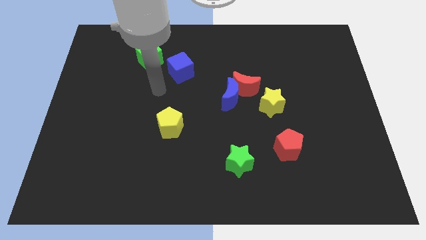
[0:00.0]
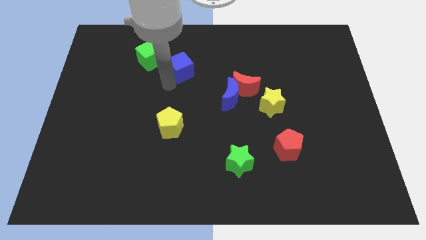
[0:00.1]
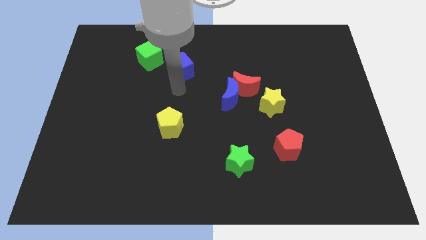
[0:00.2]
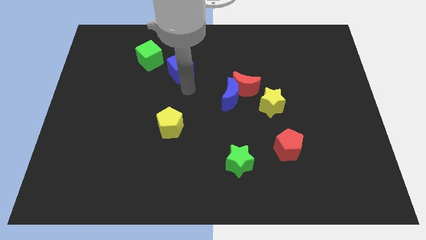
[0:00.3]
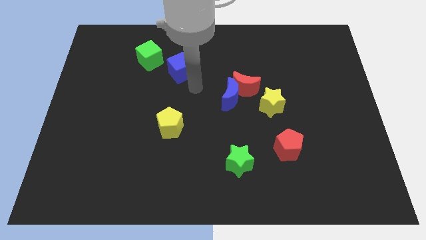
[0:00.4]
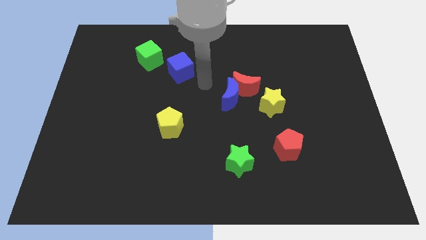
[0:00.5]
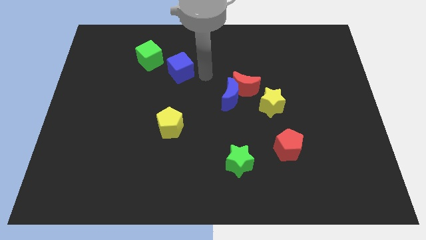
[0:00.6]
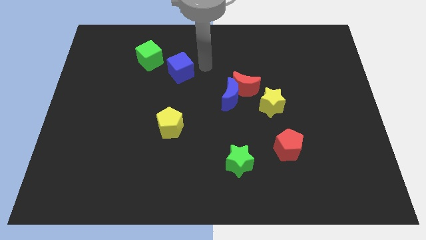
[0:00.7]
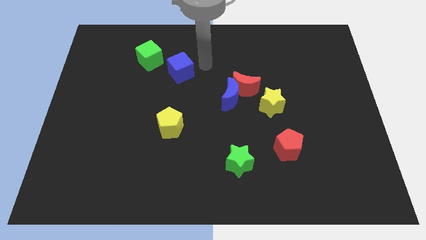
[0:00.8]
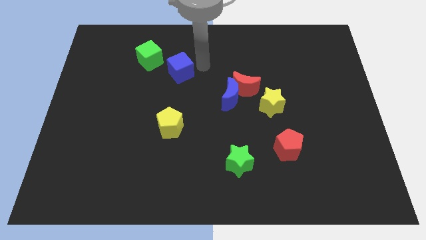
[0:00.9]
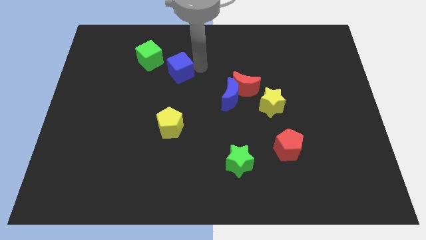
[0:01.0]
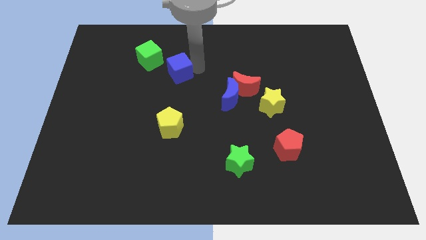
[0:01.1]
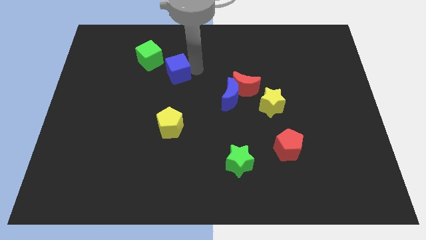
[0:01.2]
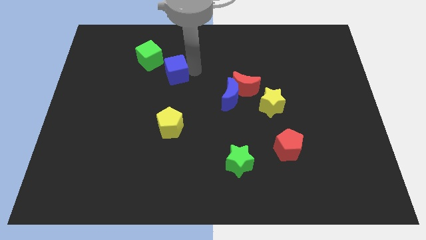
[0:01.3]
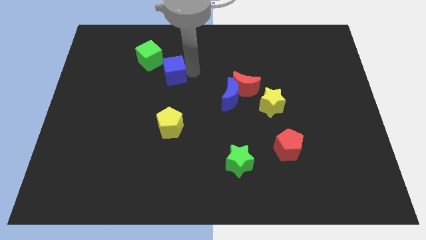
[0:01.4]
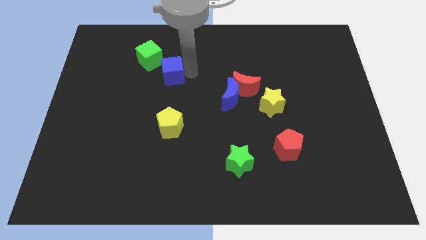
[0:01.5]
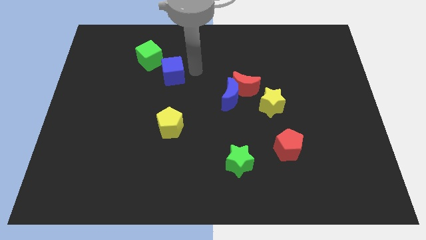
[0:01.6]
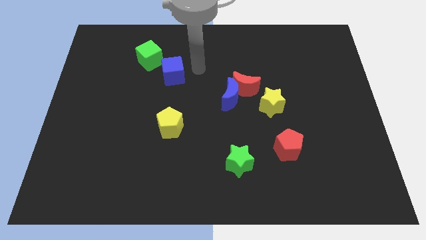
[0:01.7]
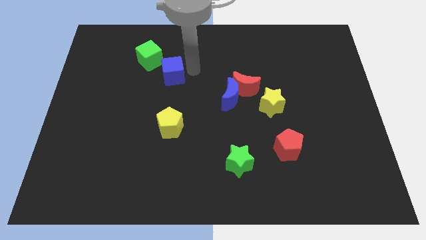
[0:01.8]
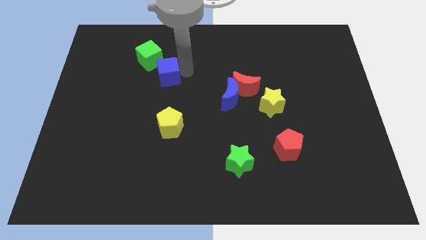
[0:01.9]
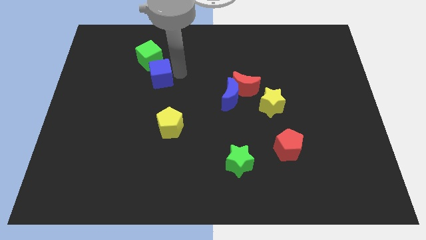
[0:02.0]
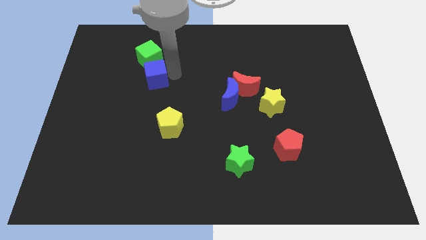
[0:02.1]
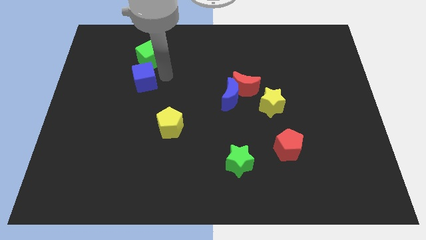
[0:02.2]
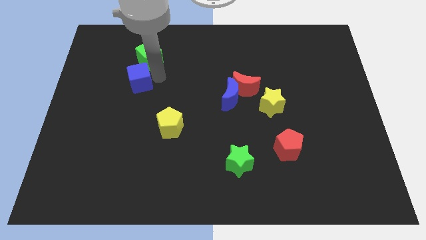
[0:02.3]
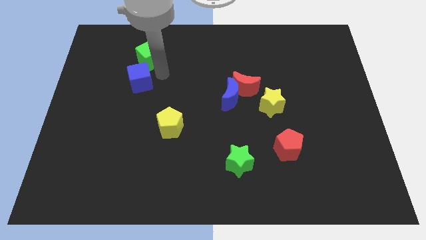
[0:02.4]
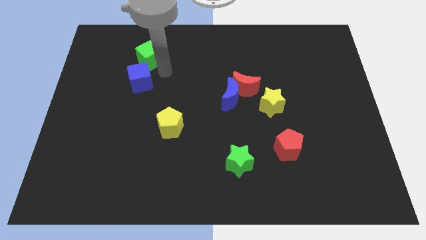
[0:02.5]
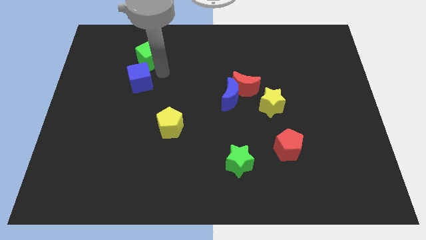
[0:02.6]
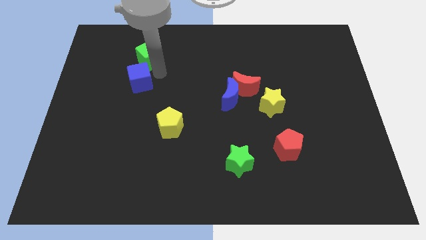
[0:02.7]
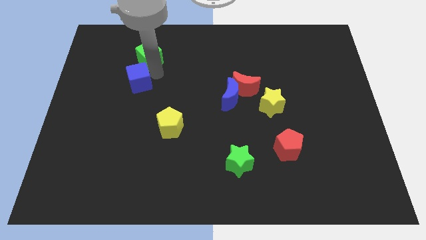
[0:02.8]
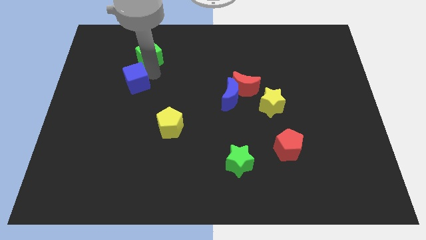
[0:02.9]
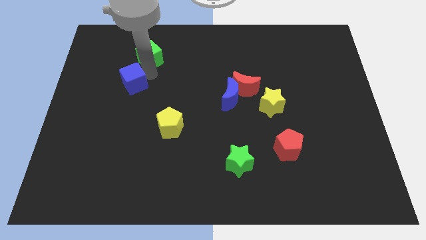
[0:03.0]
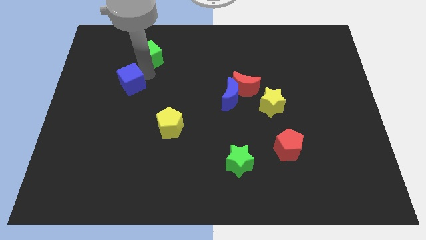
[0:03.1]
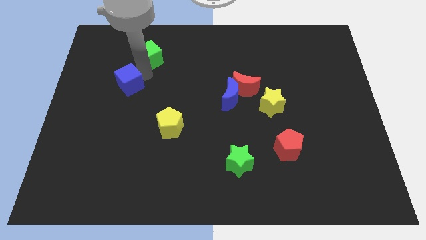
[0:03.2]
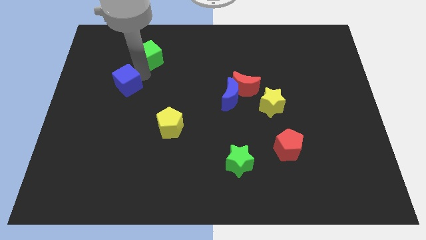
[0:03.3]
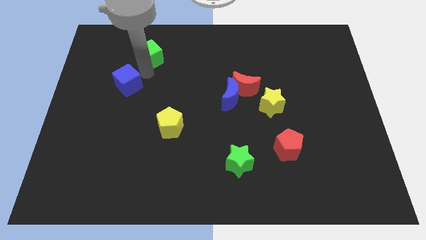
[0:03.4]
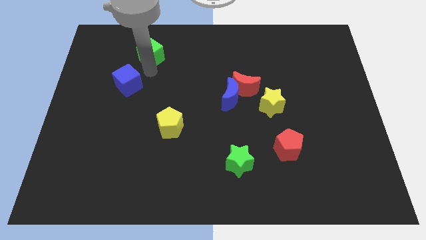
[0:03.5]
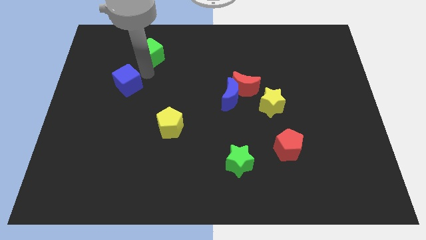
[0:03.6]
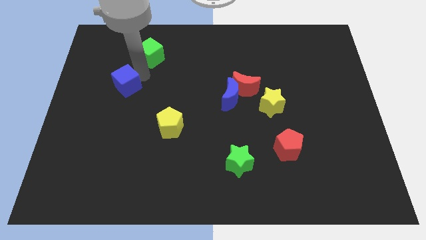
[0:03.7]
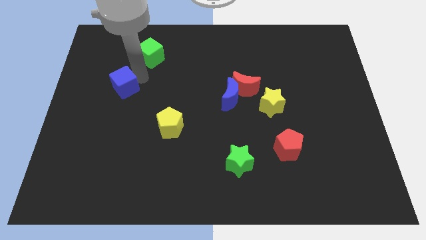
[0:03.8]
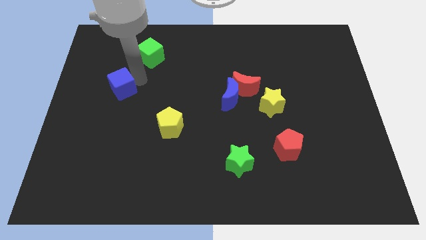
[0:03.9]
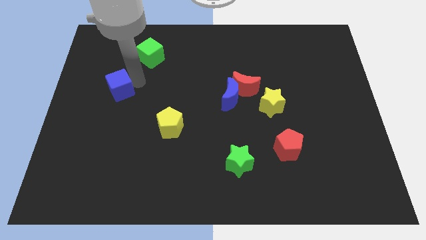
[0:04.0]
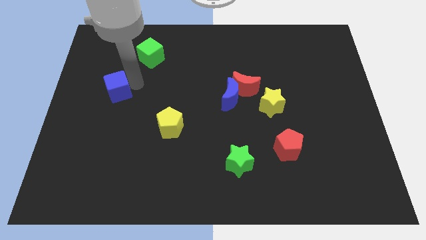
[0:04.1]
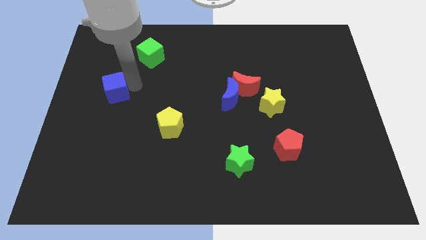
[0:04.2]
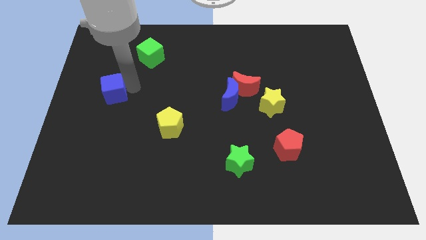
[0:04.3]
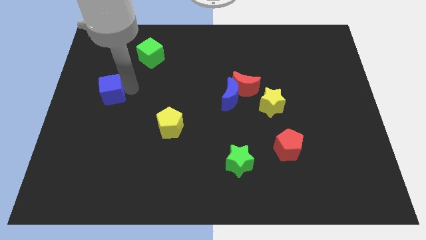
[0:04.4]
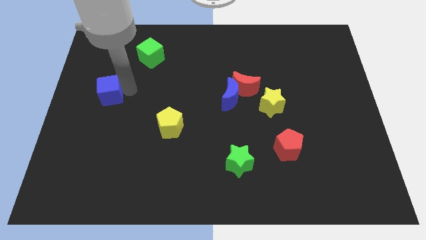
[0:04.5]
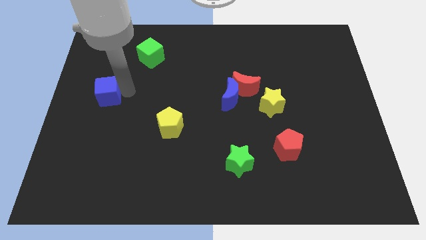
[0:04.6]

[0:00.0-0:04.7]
slide the blue cube to the left side of the board

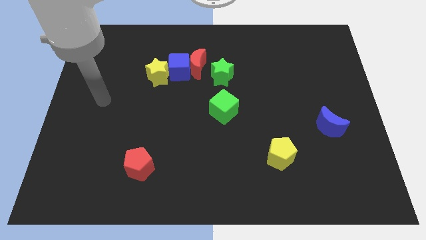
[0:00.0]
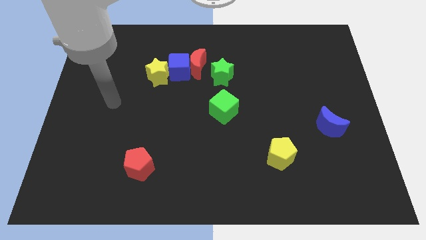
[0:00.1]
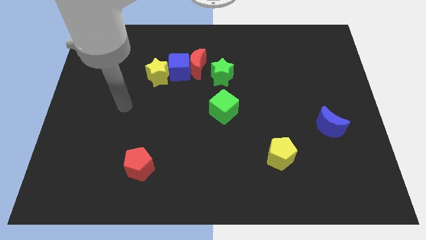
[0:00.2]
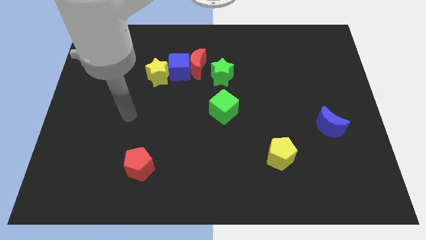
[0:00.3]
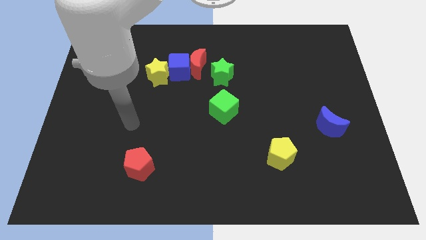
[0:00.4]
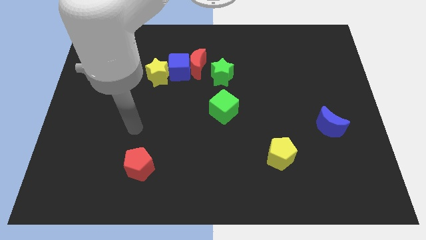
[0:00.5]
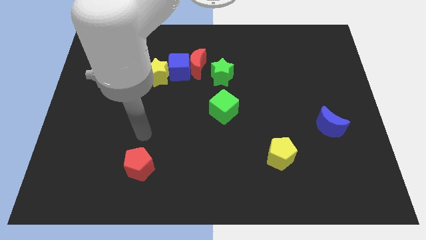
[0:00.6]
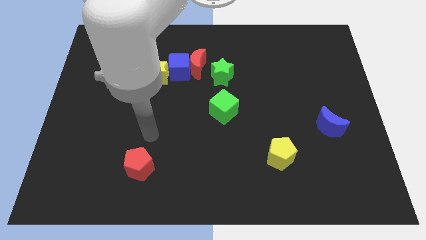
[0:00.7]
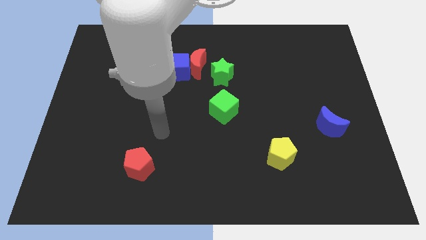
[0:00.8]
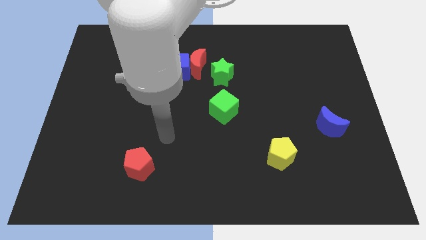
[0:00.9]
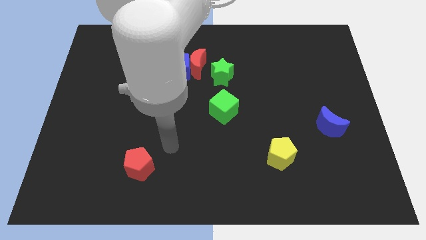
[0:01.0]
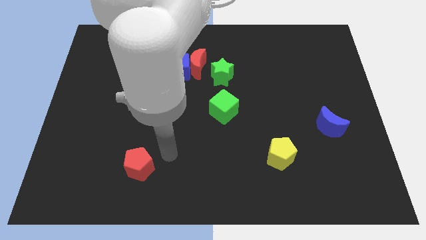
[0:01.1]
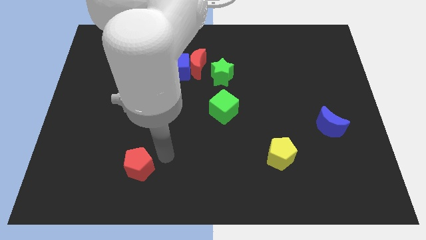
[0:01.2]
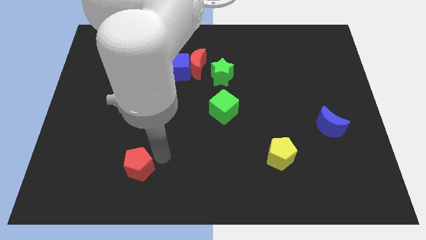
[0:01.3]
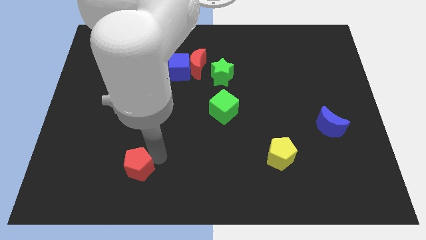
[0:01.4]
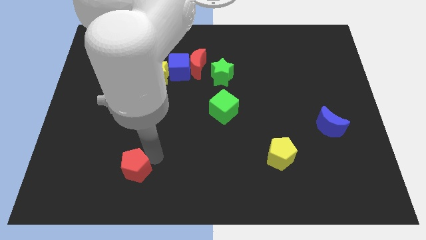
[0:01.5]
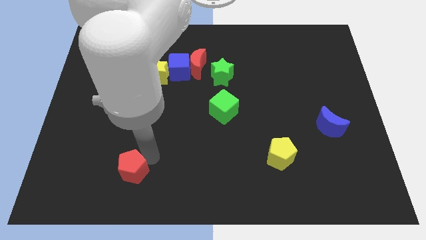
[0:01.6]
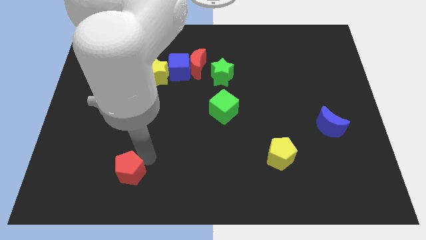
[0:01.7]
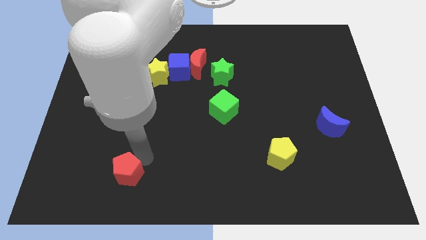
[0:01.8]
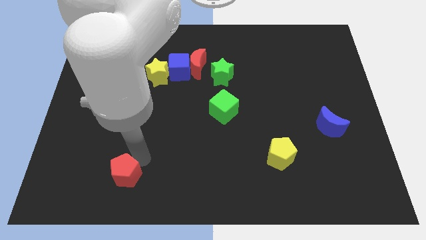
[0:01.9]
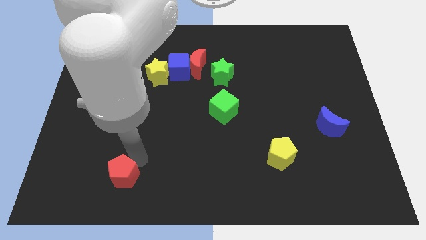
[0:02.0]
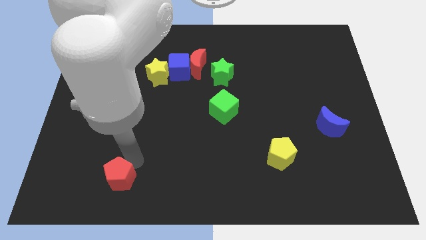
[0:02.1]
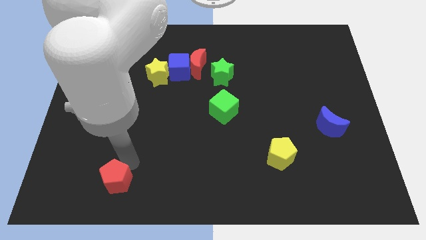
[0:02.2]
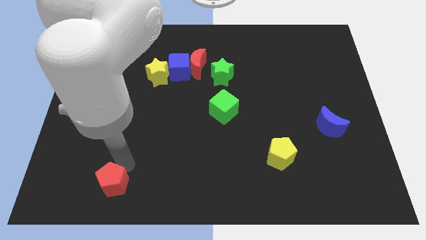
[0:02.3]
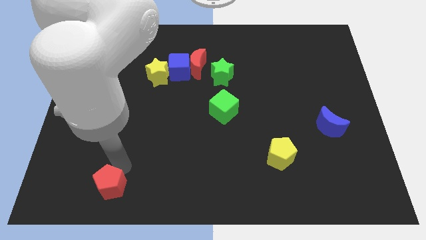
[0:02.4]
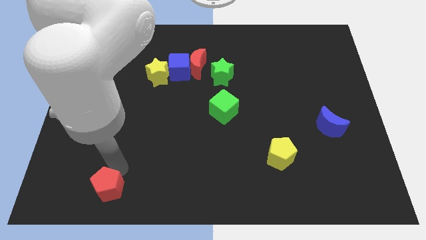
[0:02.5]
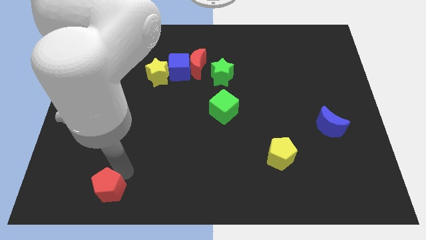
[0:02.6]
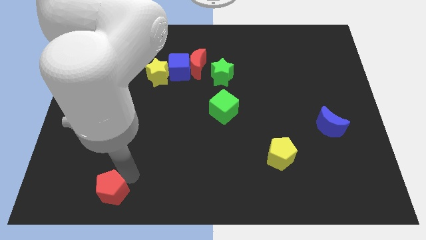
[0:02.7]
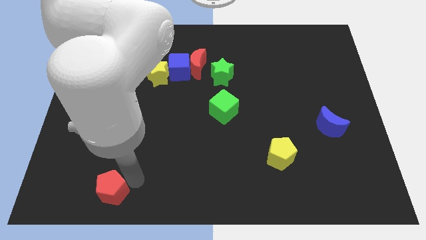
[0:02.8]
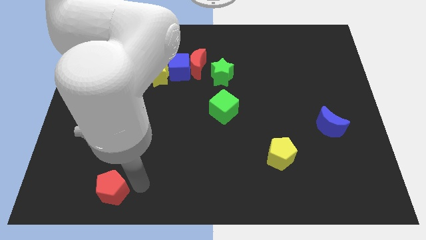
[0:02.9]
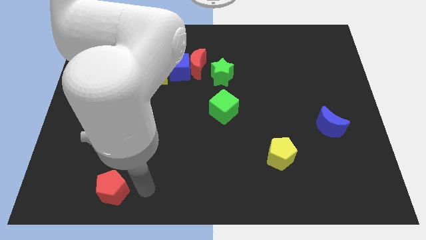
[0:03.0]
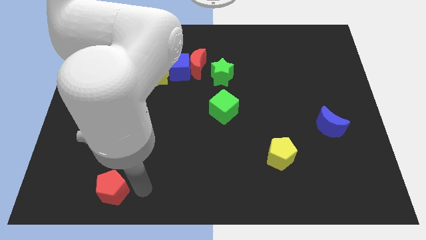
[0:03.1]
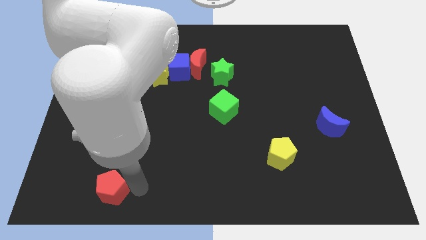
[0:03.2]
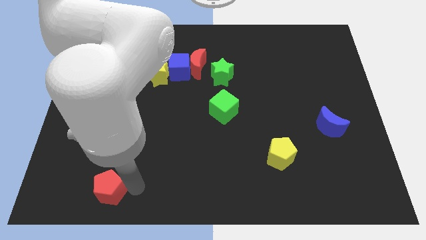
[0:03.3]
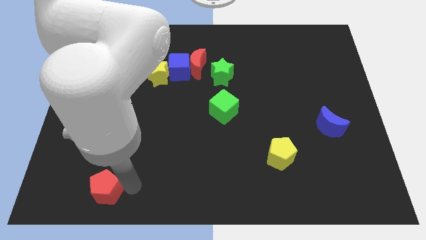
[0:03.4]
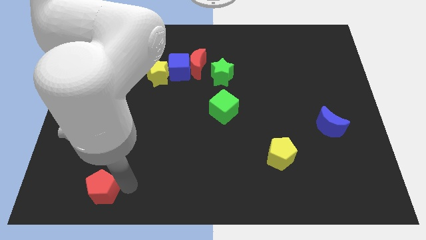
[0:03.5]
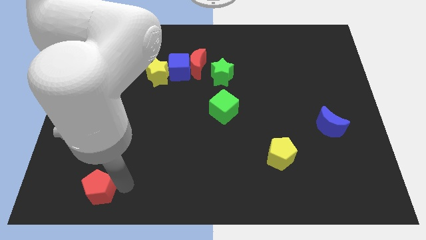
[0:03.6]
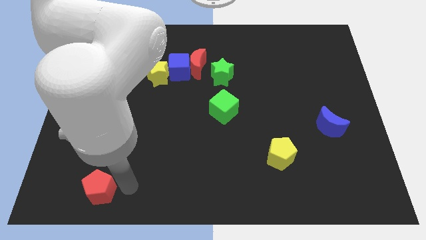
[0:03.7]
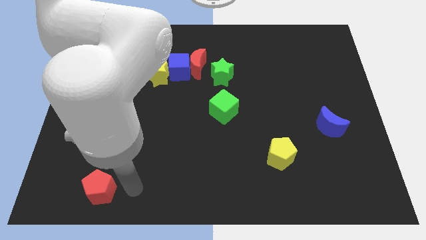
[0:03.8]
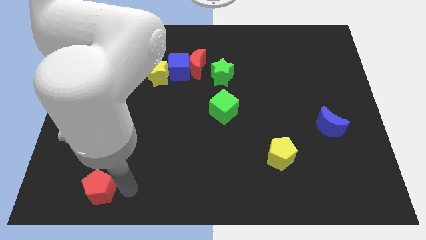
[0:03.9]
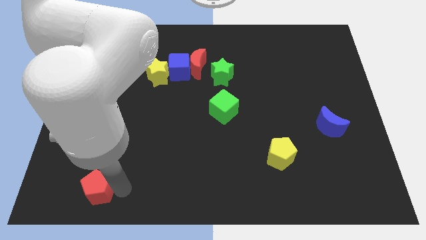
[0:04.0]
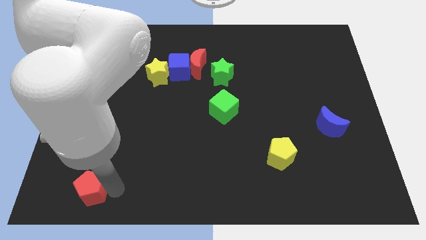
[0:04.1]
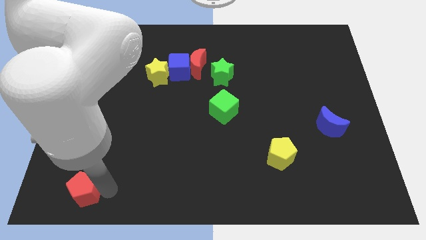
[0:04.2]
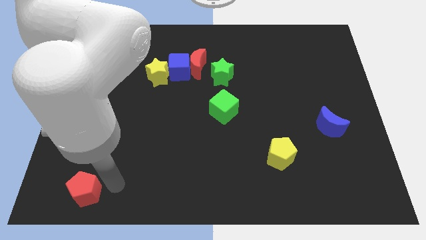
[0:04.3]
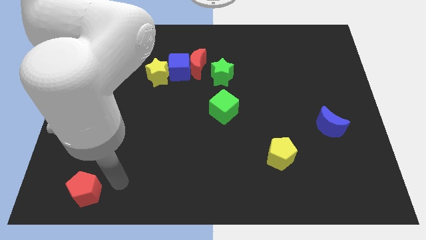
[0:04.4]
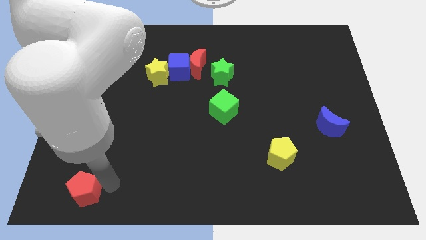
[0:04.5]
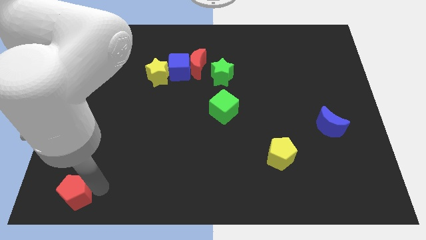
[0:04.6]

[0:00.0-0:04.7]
push the red pentagon to the lower left corner
